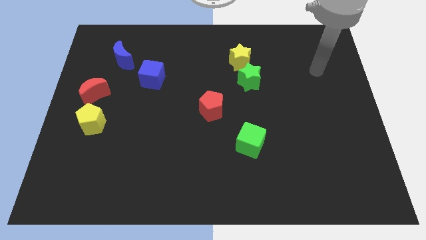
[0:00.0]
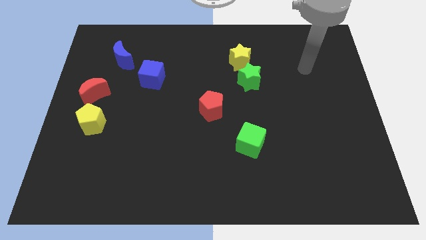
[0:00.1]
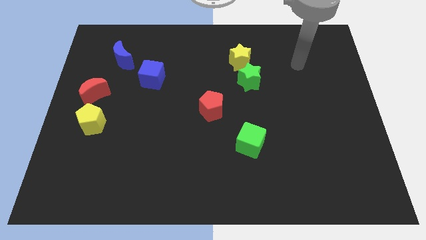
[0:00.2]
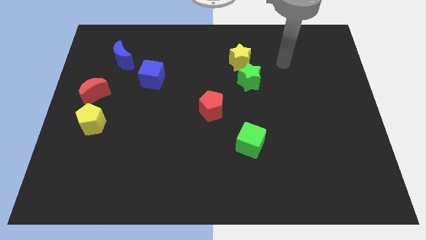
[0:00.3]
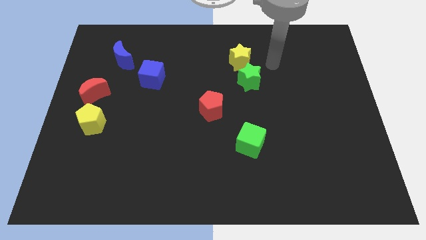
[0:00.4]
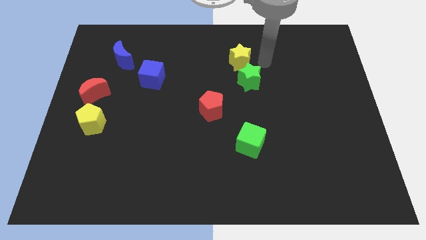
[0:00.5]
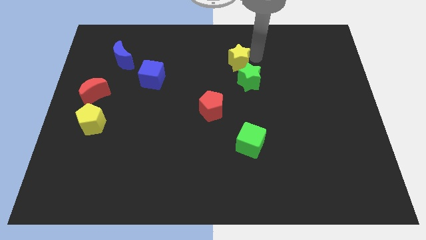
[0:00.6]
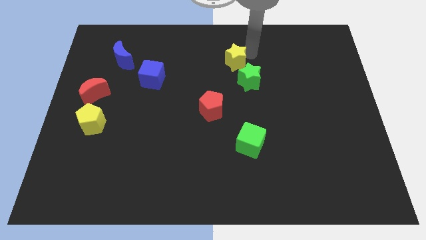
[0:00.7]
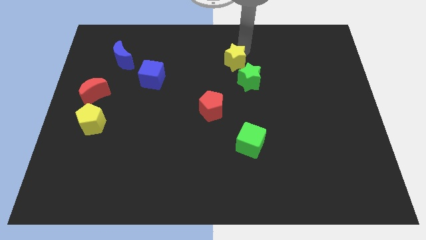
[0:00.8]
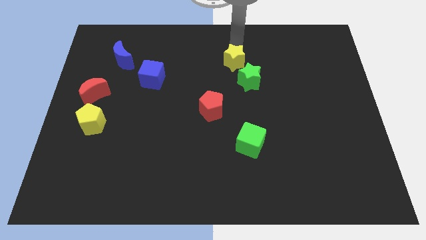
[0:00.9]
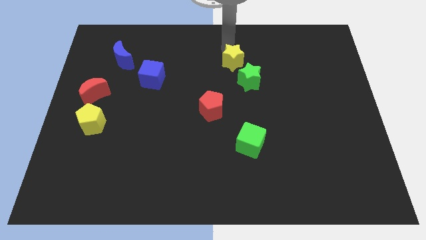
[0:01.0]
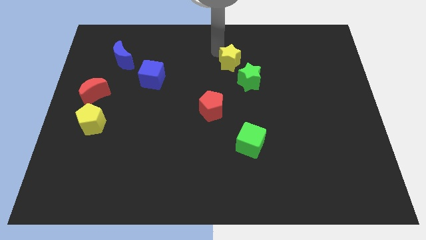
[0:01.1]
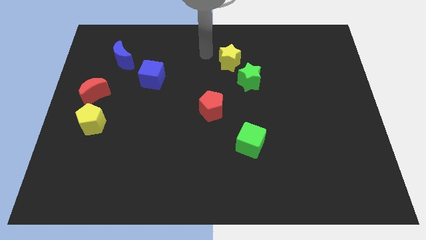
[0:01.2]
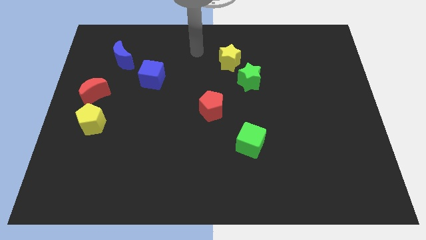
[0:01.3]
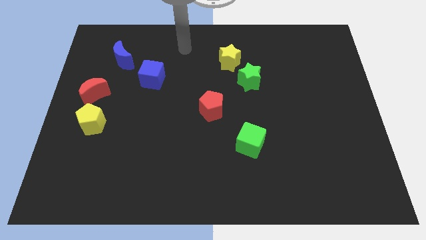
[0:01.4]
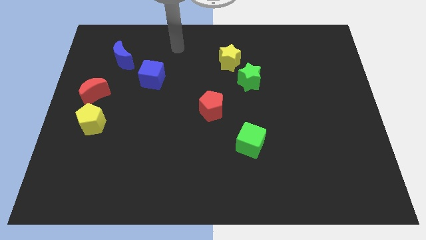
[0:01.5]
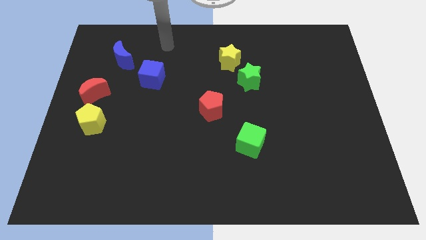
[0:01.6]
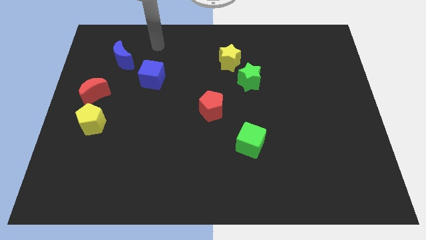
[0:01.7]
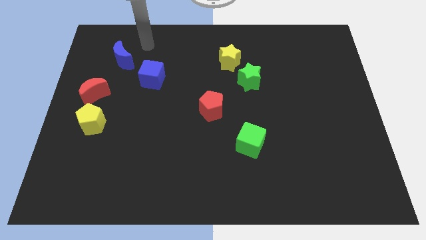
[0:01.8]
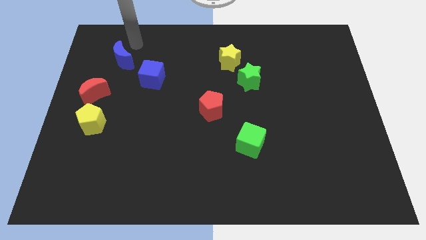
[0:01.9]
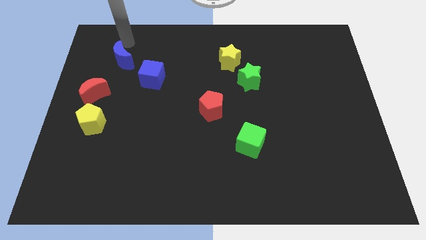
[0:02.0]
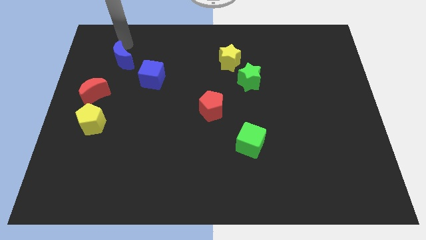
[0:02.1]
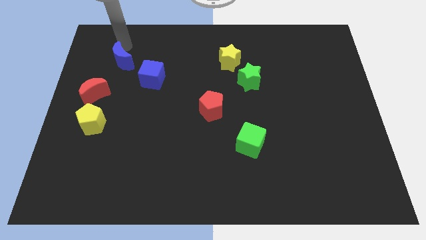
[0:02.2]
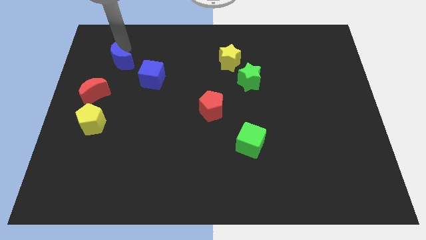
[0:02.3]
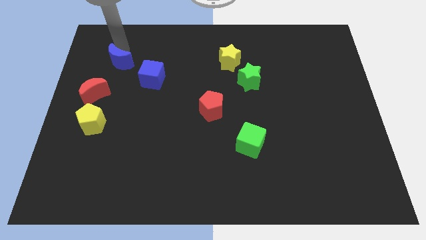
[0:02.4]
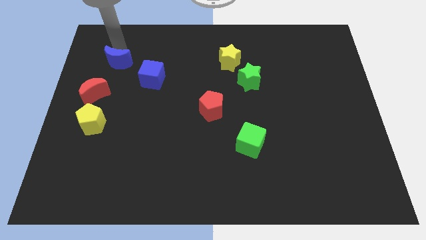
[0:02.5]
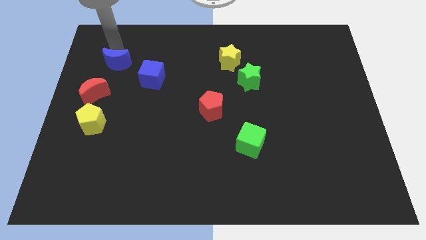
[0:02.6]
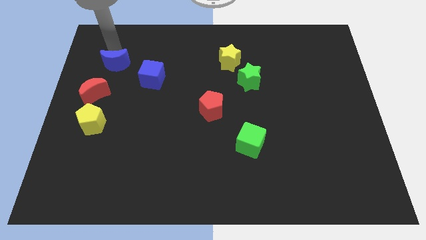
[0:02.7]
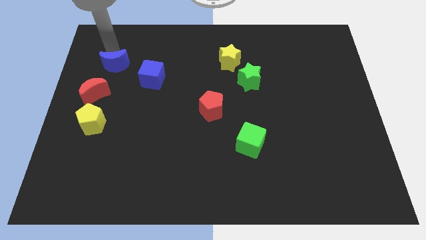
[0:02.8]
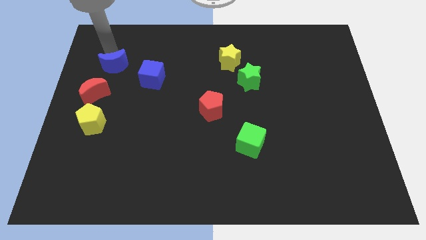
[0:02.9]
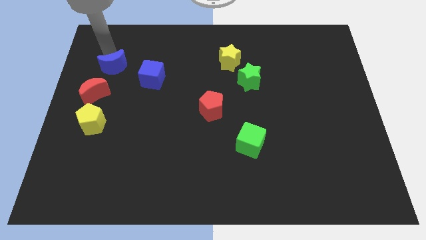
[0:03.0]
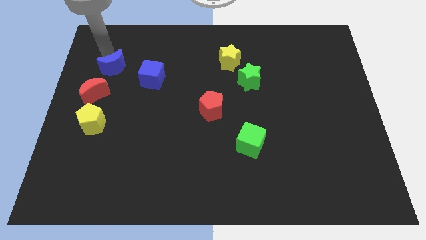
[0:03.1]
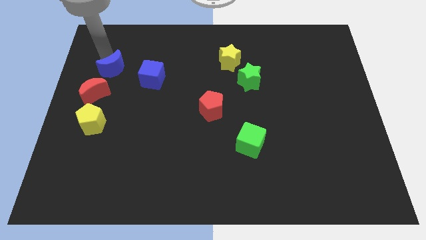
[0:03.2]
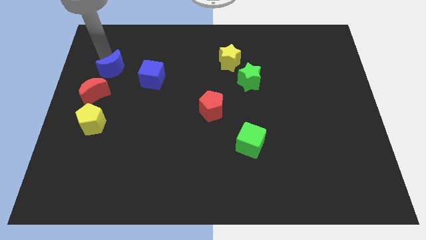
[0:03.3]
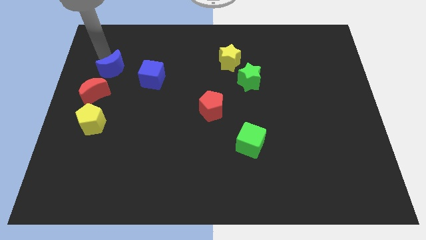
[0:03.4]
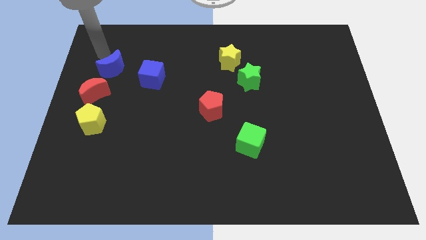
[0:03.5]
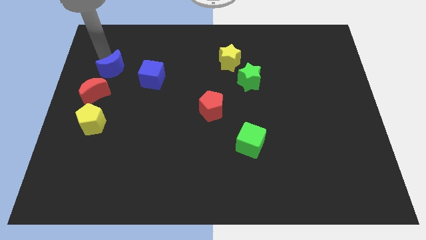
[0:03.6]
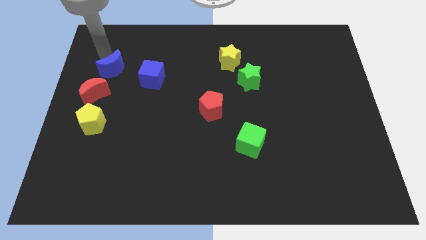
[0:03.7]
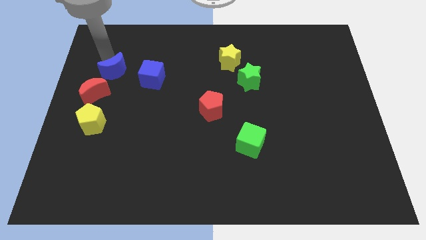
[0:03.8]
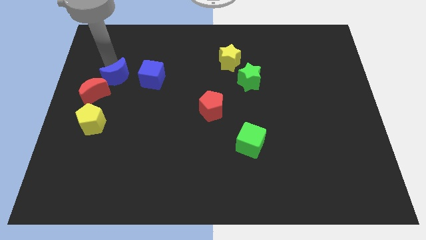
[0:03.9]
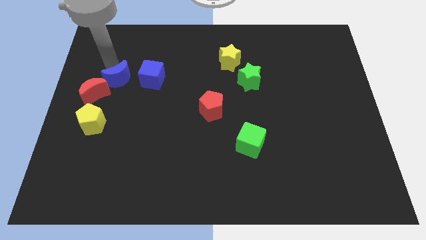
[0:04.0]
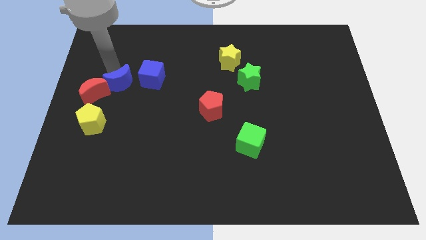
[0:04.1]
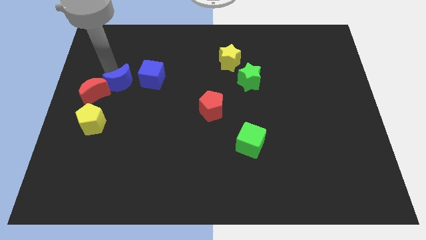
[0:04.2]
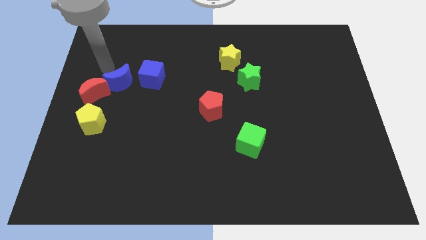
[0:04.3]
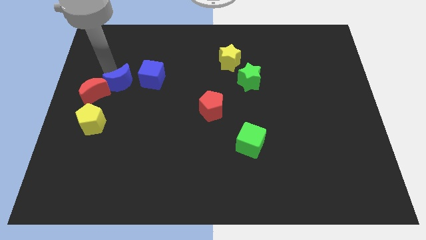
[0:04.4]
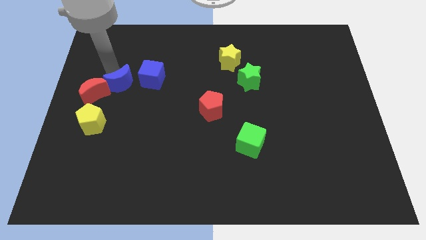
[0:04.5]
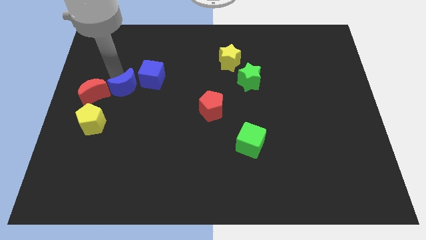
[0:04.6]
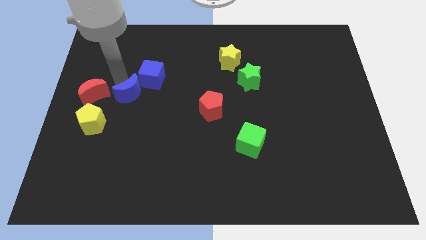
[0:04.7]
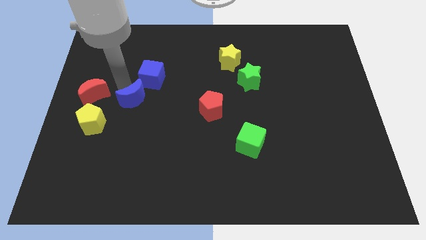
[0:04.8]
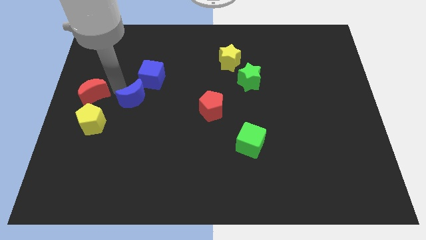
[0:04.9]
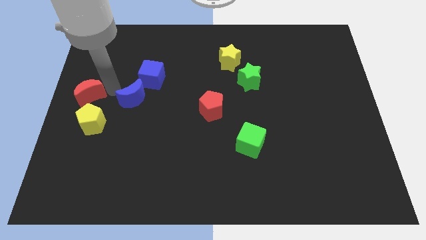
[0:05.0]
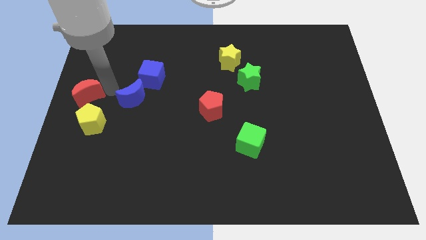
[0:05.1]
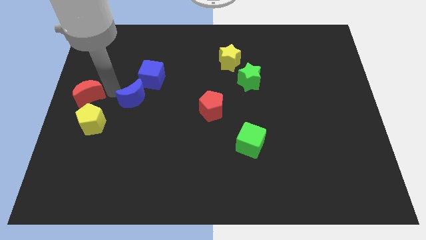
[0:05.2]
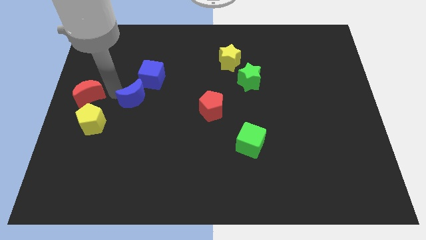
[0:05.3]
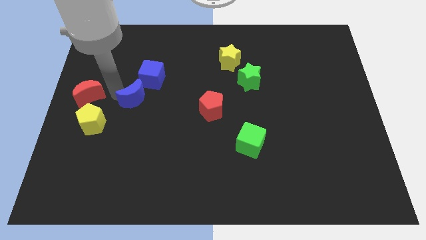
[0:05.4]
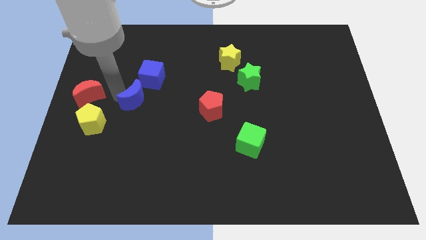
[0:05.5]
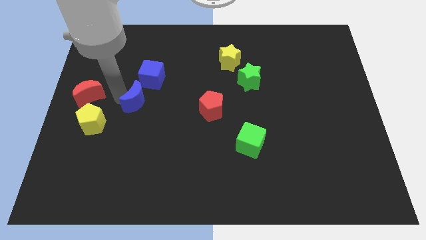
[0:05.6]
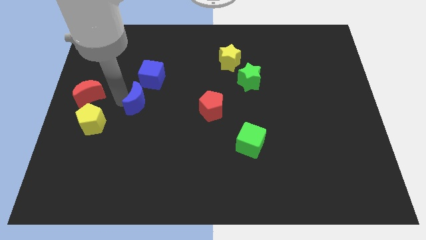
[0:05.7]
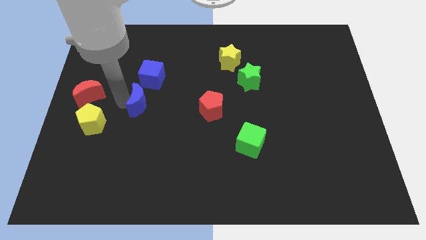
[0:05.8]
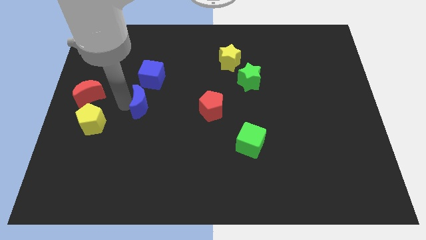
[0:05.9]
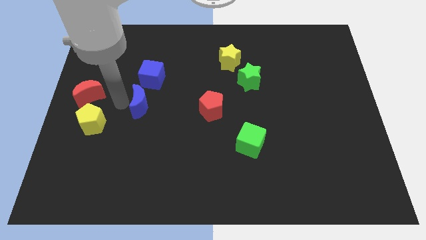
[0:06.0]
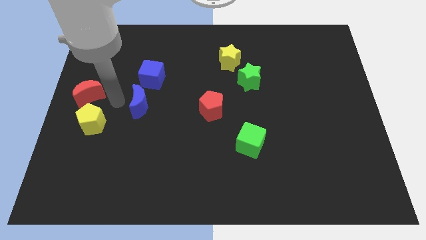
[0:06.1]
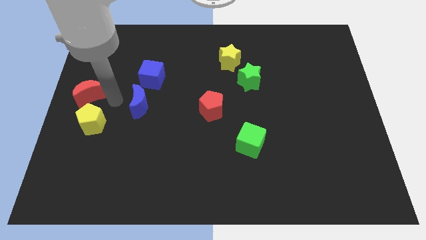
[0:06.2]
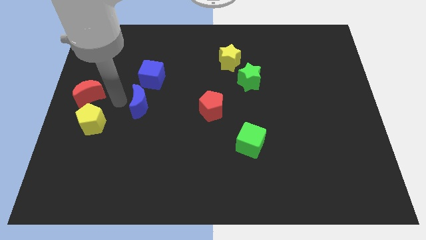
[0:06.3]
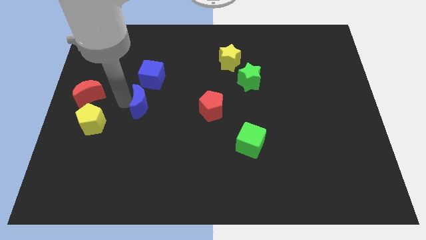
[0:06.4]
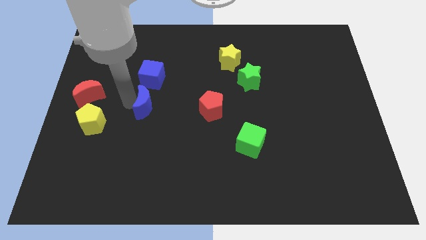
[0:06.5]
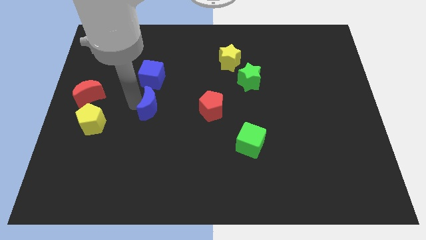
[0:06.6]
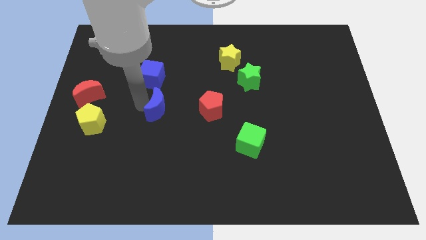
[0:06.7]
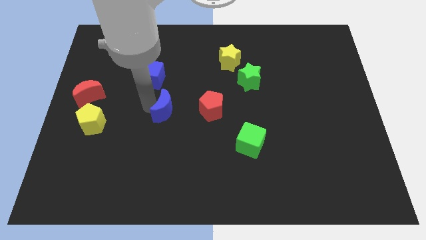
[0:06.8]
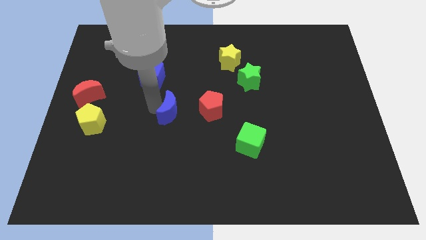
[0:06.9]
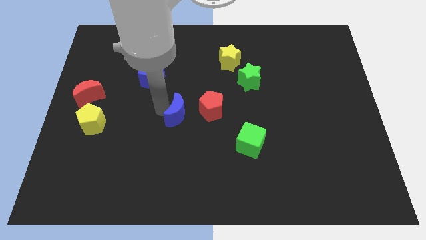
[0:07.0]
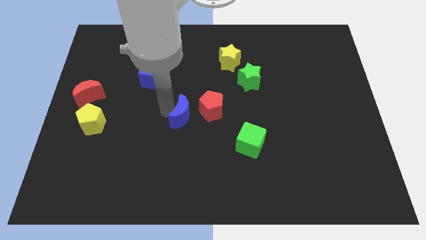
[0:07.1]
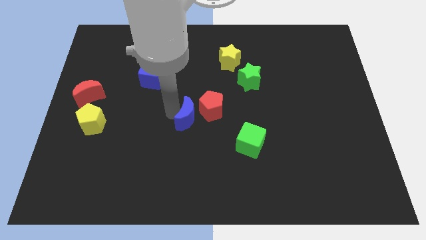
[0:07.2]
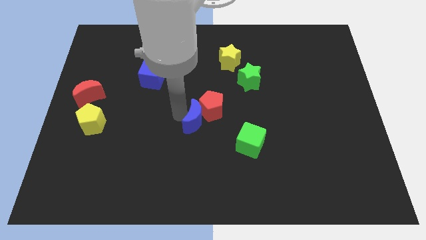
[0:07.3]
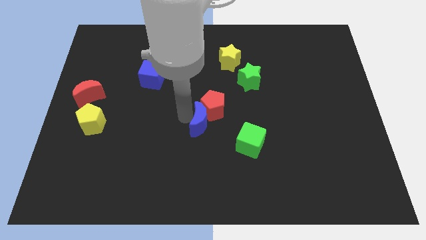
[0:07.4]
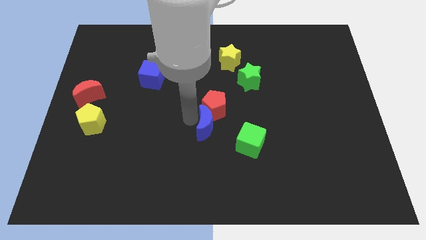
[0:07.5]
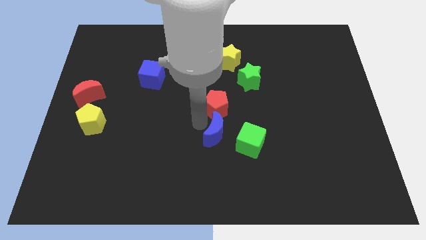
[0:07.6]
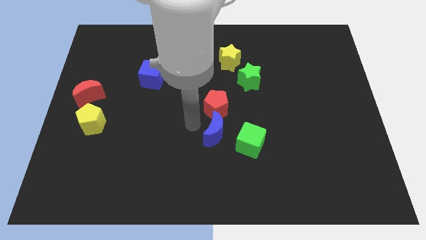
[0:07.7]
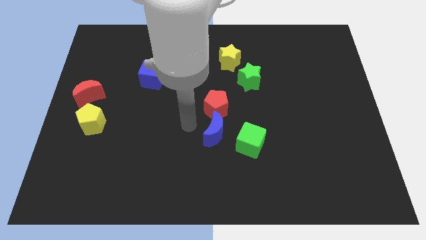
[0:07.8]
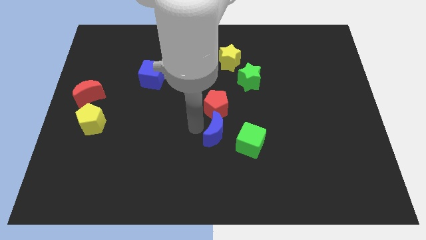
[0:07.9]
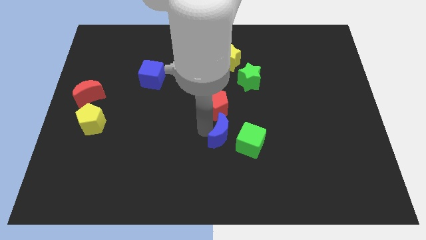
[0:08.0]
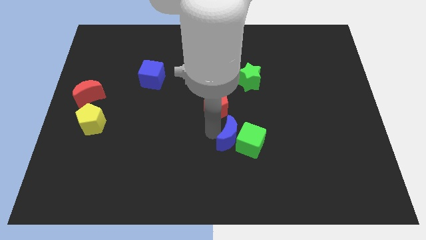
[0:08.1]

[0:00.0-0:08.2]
put the blue moon next to the green cube
